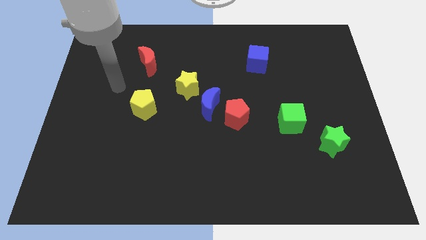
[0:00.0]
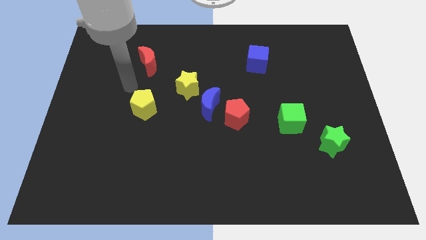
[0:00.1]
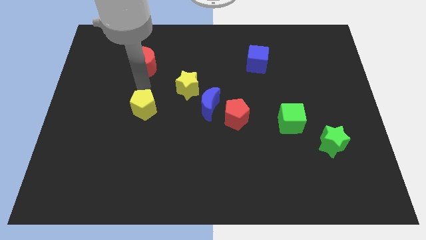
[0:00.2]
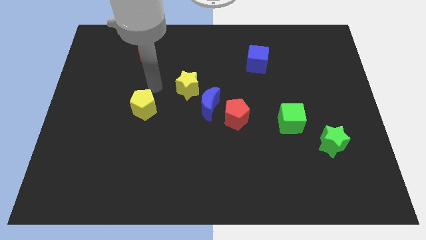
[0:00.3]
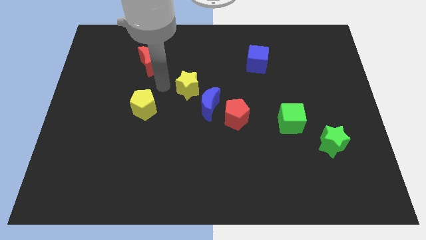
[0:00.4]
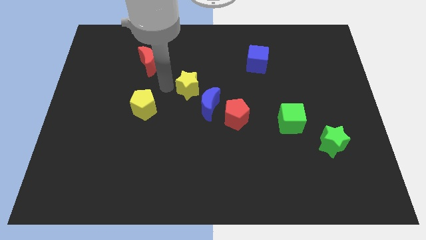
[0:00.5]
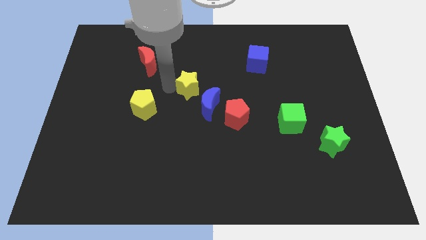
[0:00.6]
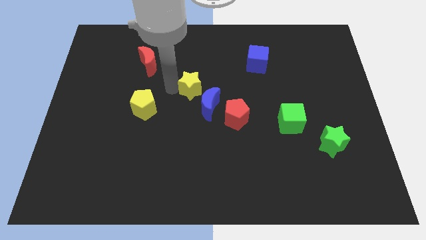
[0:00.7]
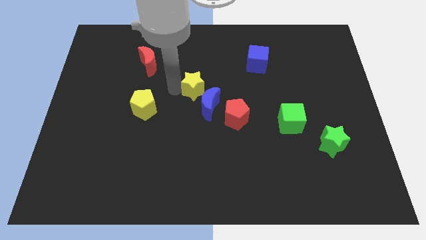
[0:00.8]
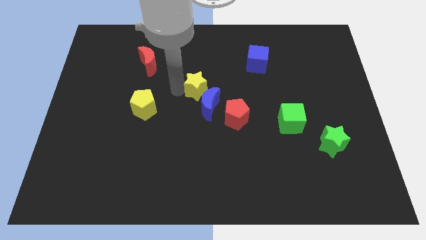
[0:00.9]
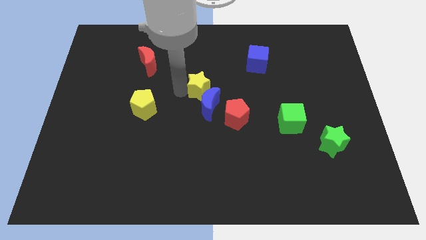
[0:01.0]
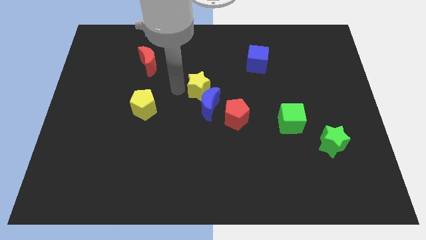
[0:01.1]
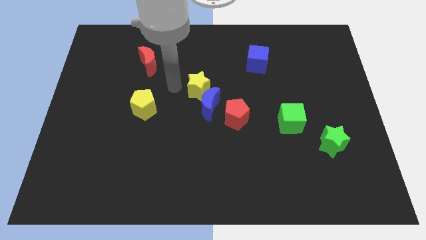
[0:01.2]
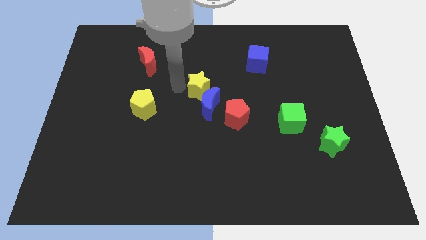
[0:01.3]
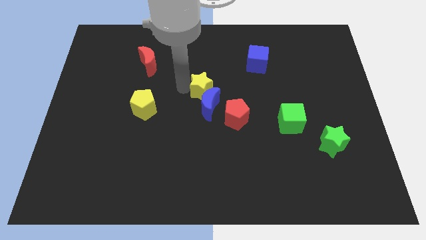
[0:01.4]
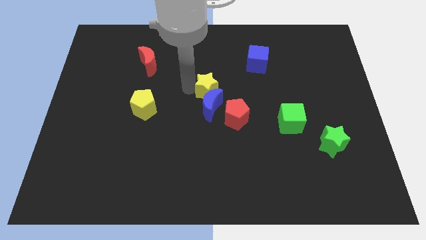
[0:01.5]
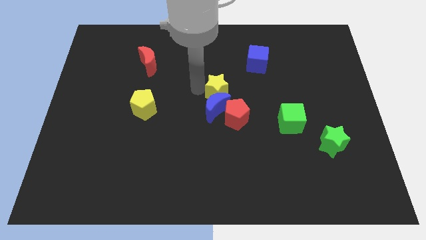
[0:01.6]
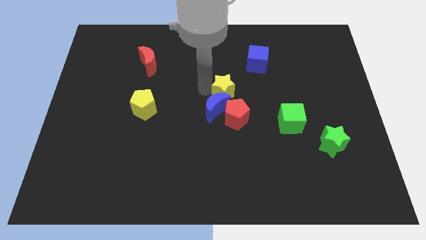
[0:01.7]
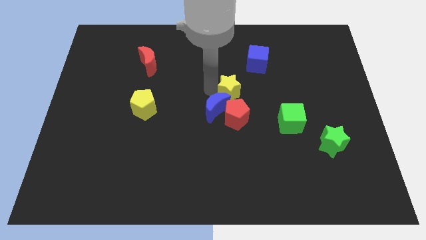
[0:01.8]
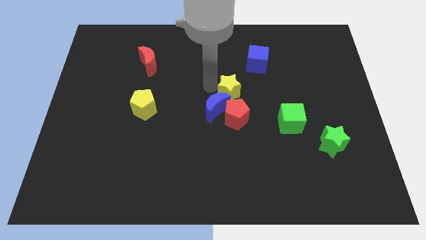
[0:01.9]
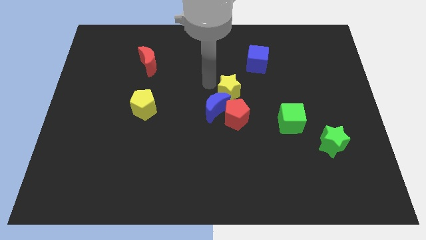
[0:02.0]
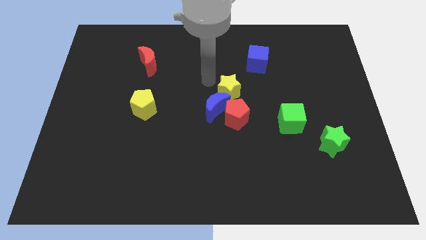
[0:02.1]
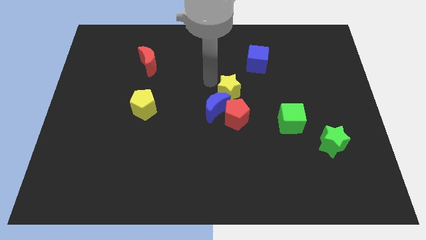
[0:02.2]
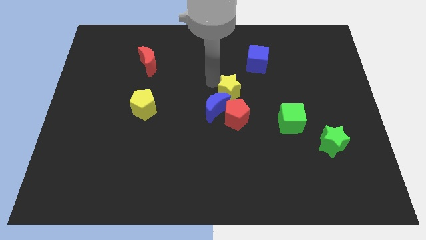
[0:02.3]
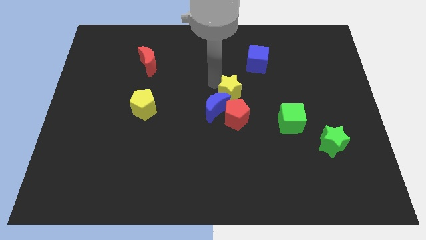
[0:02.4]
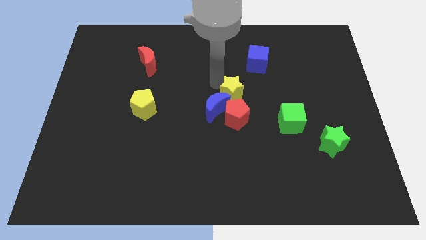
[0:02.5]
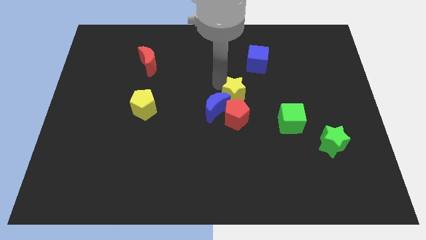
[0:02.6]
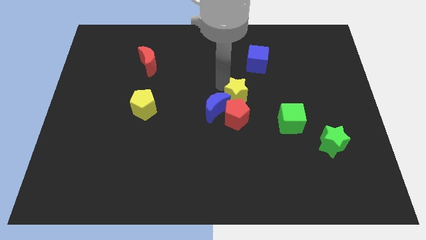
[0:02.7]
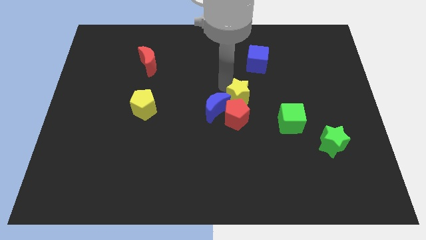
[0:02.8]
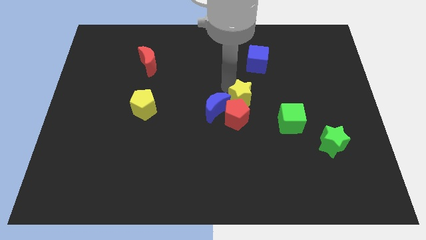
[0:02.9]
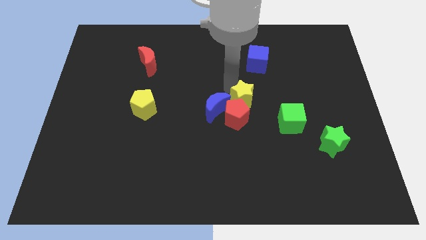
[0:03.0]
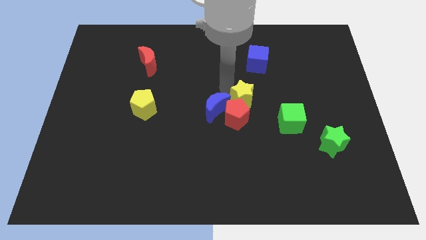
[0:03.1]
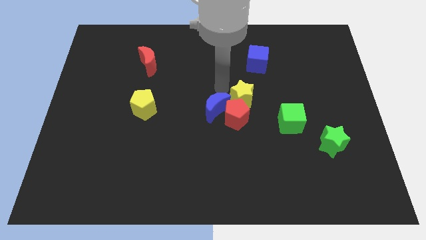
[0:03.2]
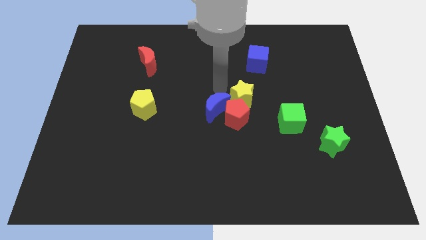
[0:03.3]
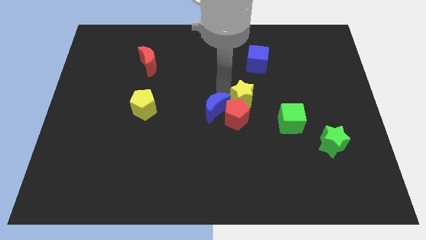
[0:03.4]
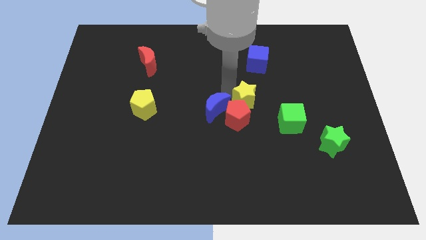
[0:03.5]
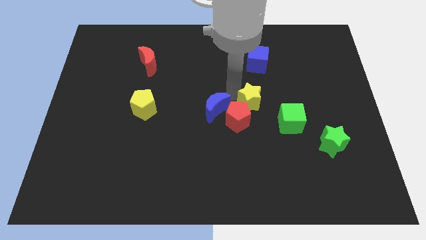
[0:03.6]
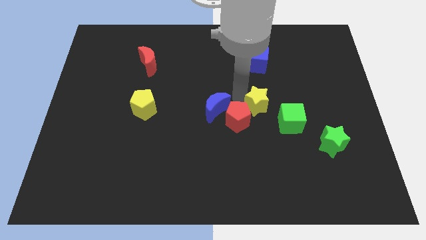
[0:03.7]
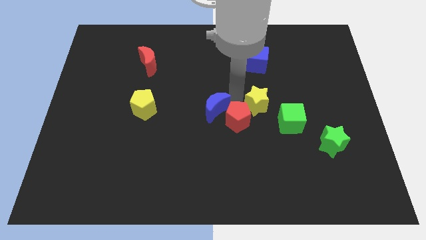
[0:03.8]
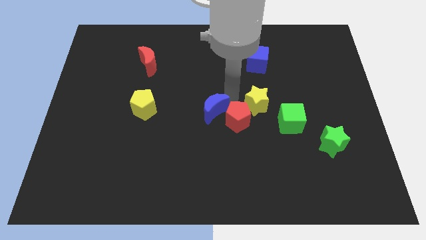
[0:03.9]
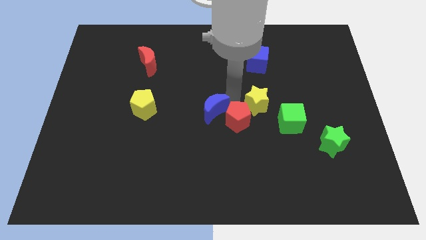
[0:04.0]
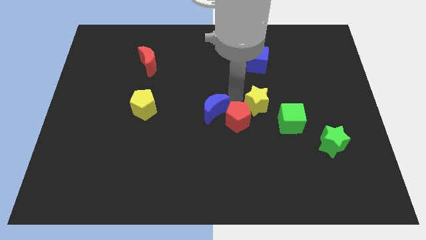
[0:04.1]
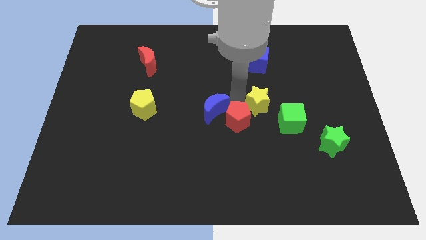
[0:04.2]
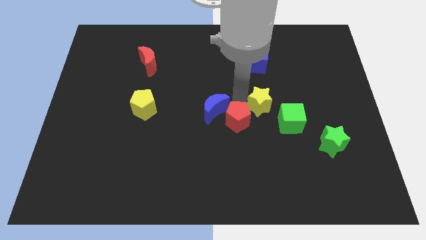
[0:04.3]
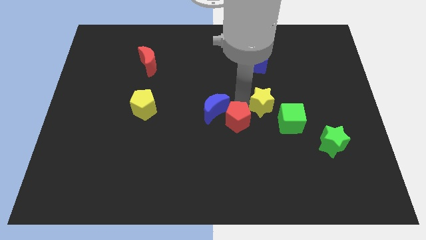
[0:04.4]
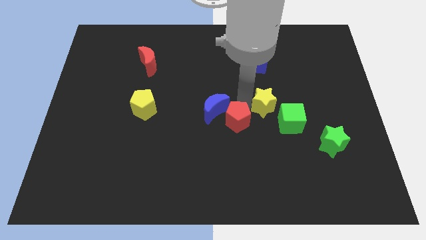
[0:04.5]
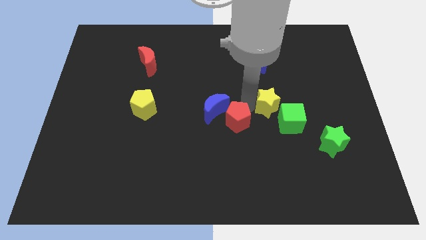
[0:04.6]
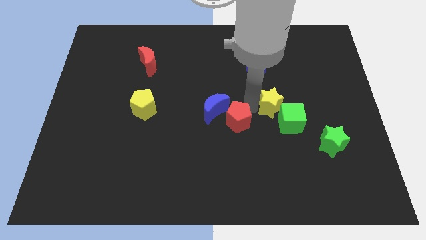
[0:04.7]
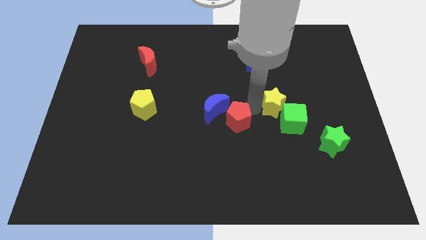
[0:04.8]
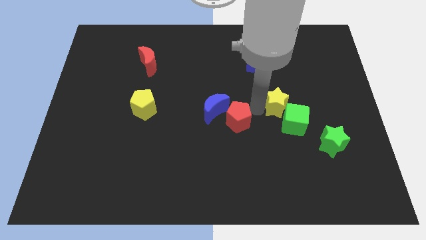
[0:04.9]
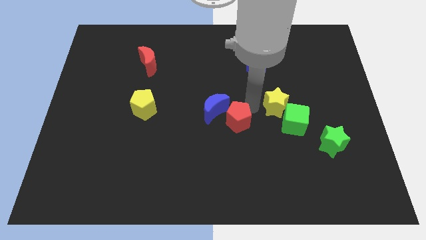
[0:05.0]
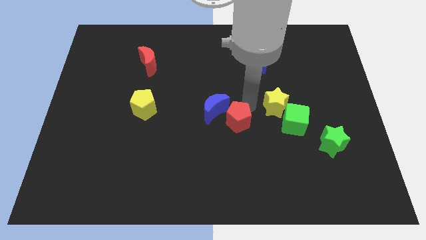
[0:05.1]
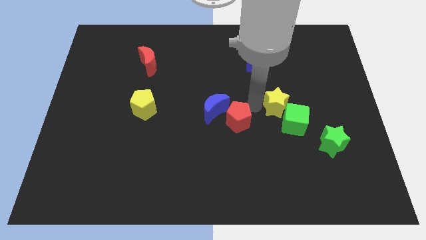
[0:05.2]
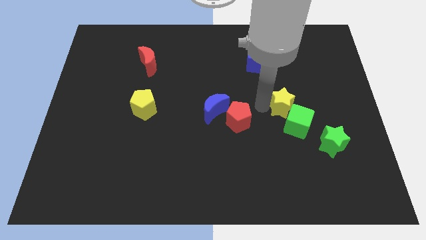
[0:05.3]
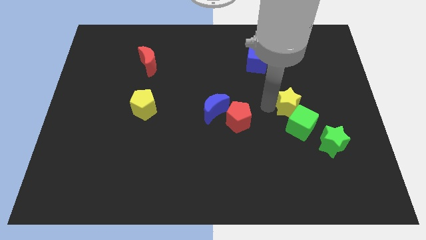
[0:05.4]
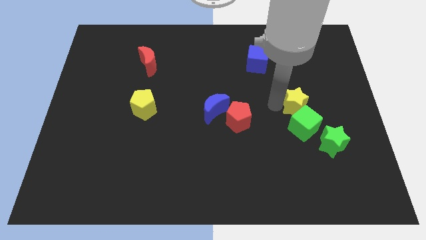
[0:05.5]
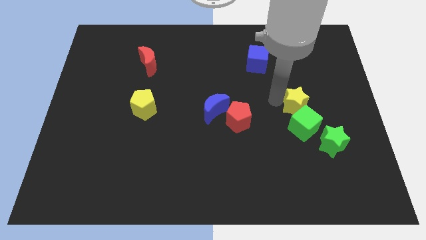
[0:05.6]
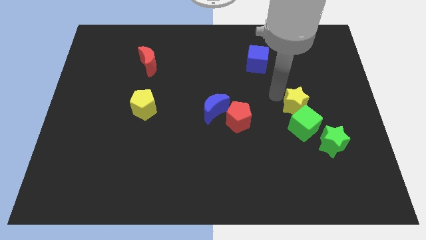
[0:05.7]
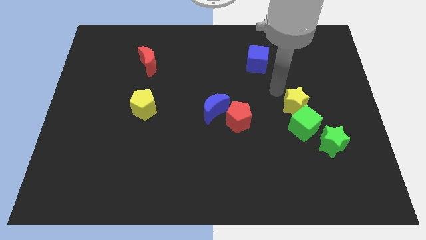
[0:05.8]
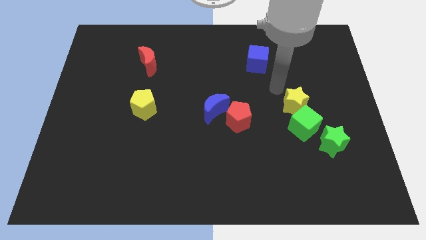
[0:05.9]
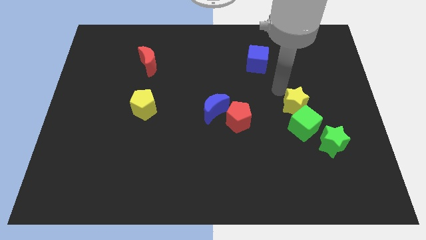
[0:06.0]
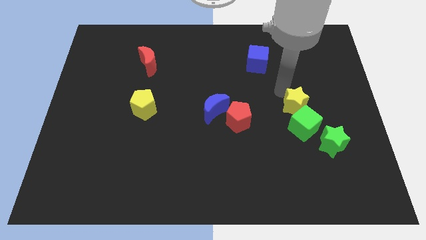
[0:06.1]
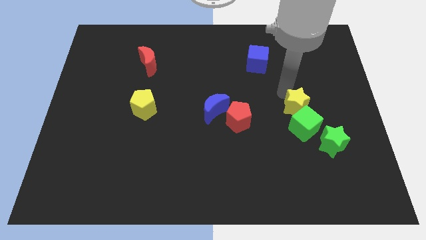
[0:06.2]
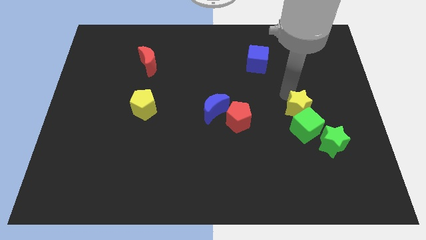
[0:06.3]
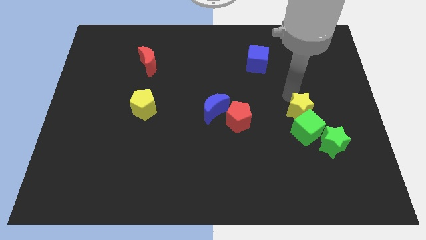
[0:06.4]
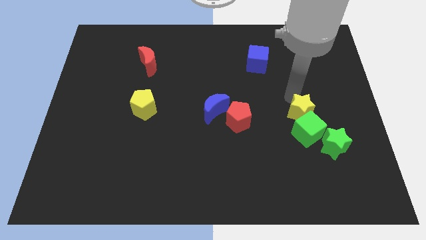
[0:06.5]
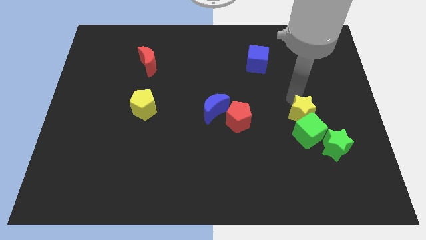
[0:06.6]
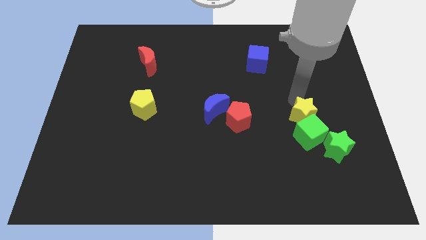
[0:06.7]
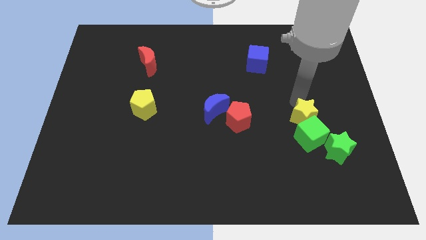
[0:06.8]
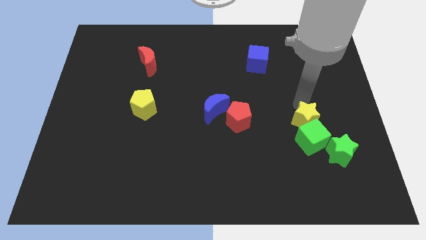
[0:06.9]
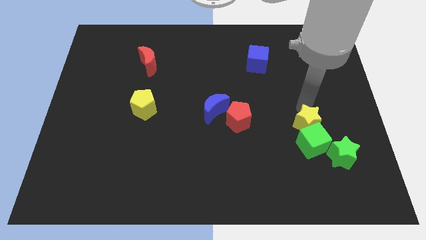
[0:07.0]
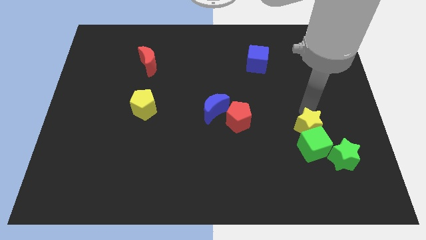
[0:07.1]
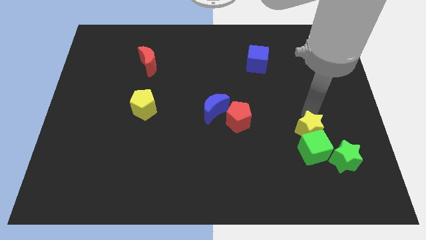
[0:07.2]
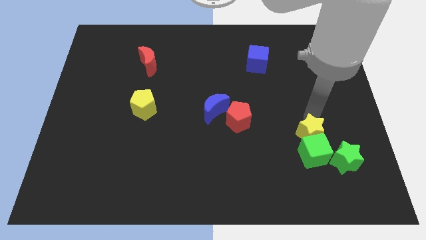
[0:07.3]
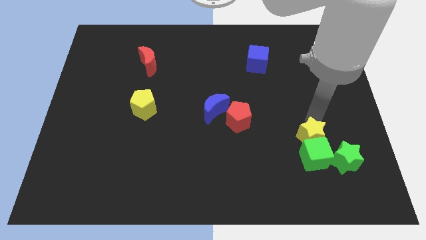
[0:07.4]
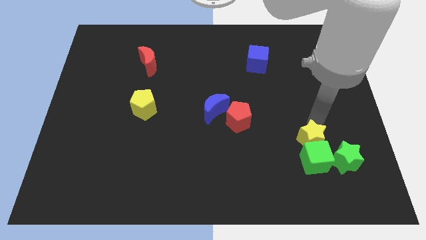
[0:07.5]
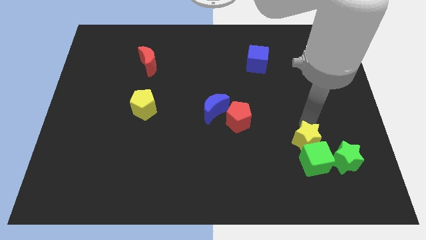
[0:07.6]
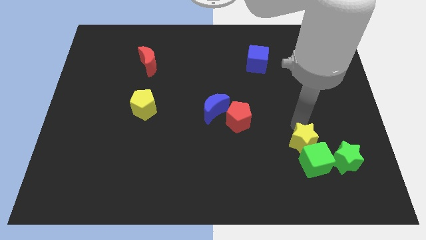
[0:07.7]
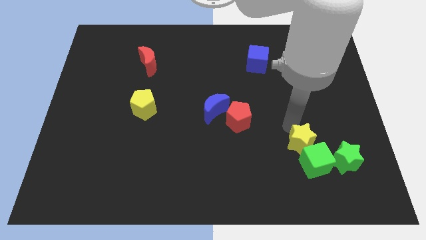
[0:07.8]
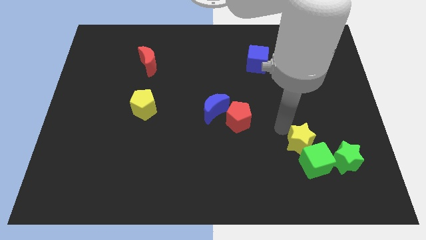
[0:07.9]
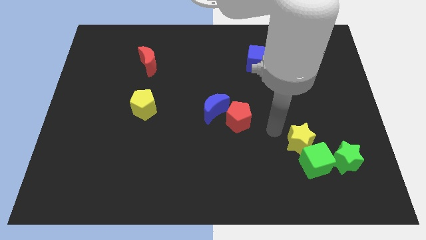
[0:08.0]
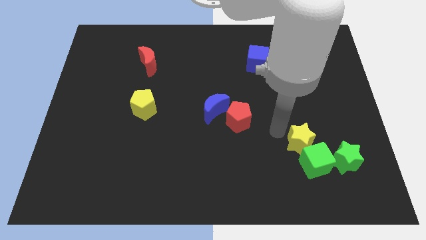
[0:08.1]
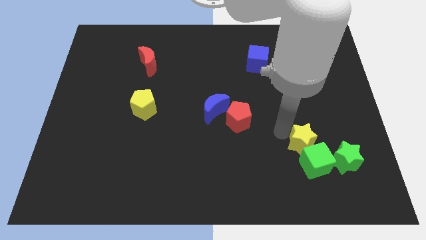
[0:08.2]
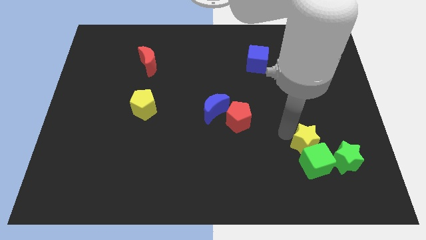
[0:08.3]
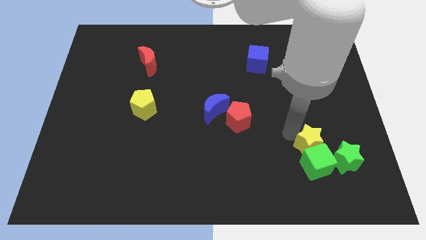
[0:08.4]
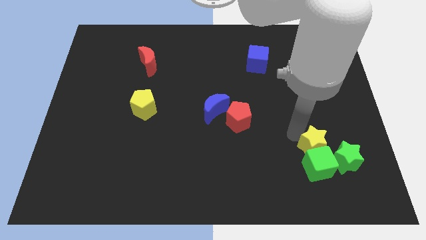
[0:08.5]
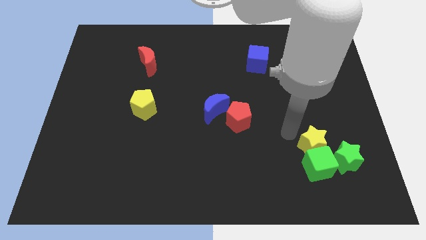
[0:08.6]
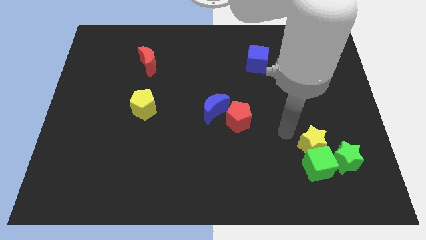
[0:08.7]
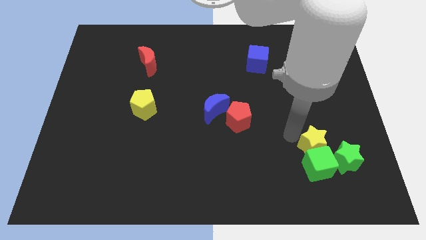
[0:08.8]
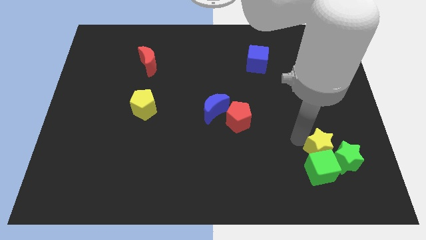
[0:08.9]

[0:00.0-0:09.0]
put the yellow star to the green star
